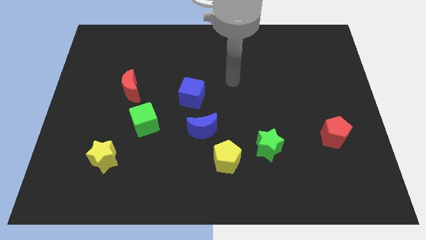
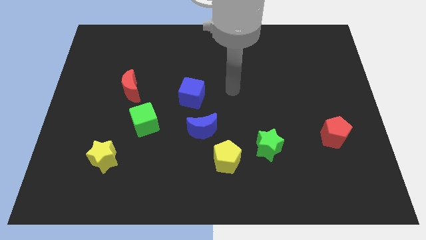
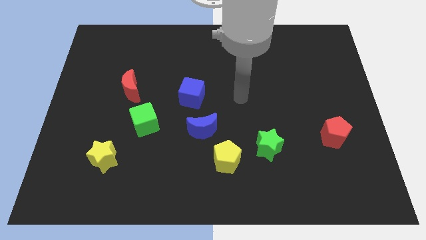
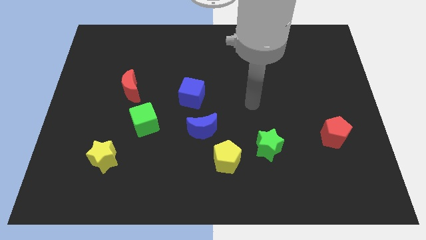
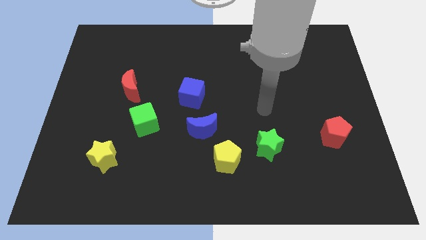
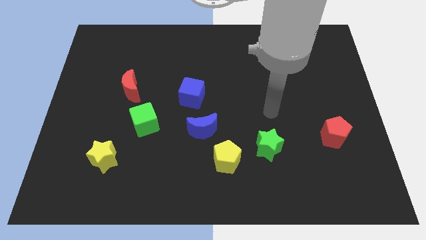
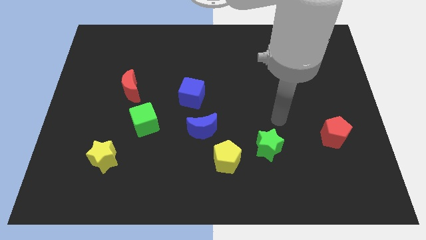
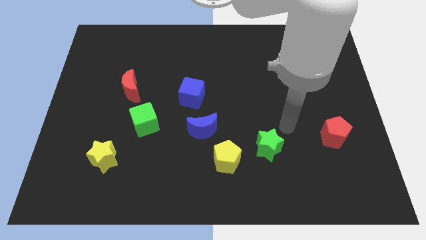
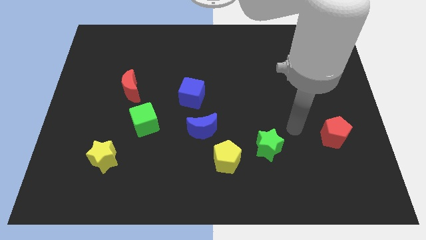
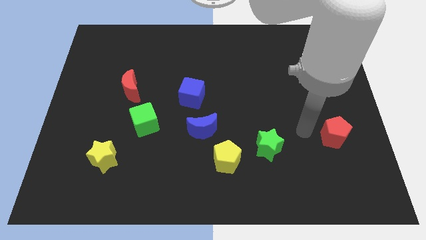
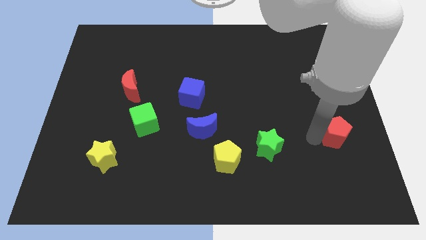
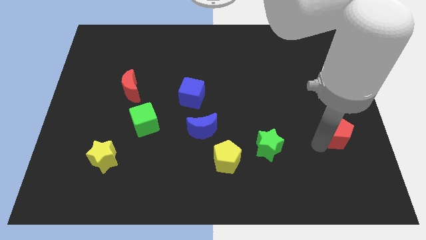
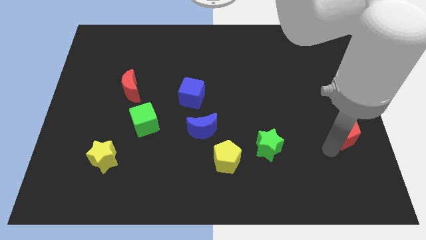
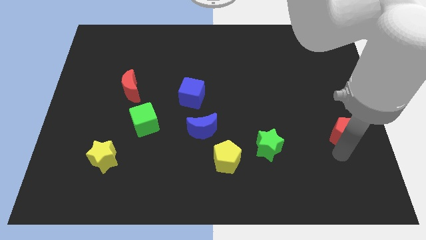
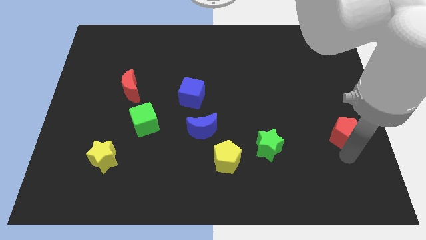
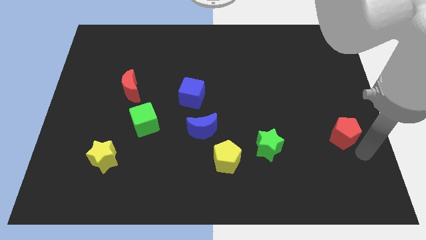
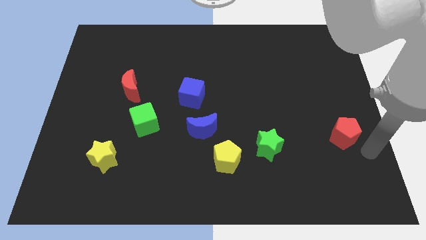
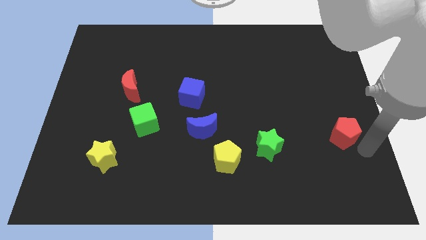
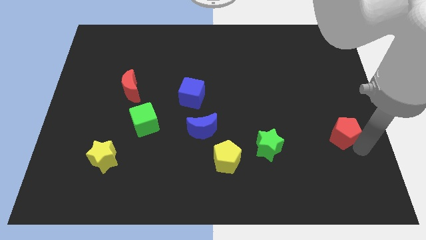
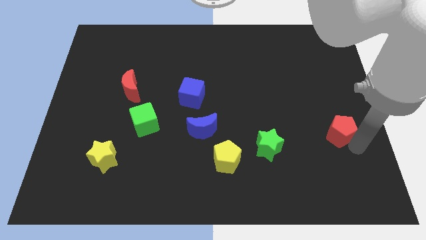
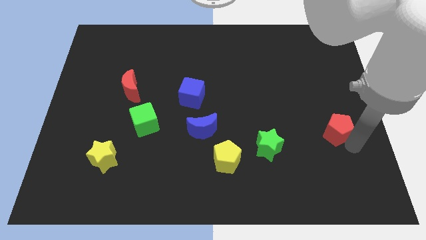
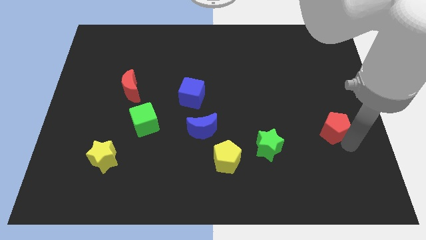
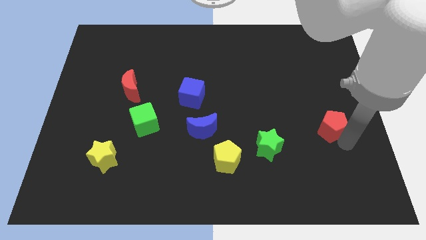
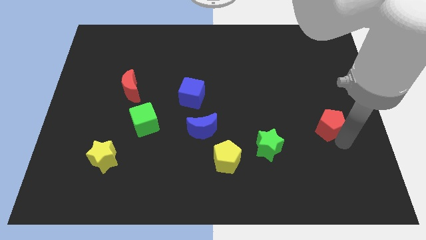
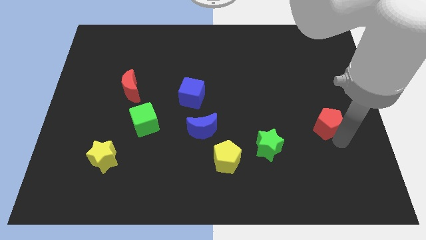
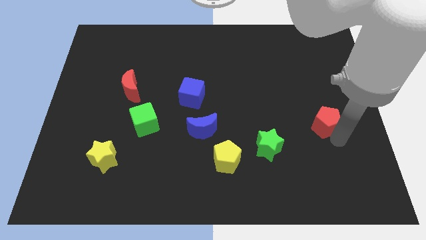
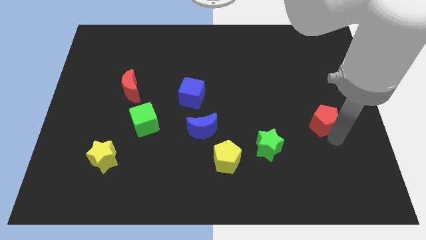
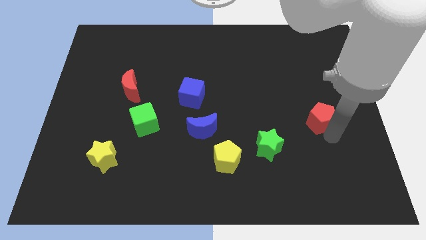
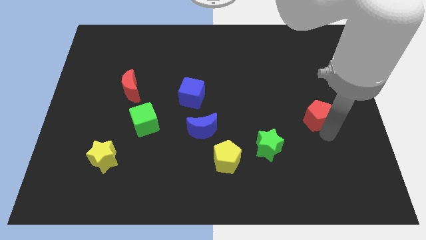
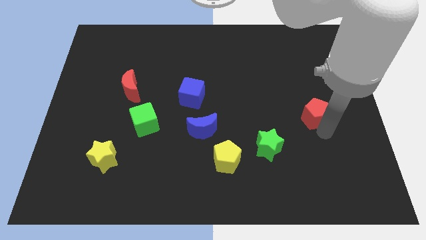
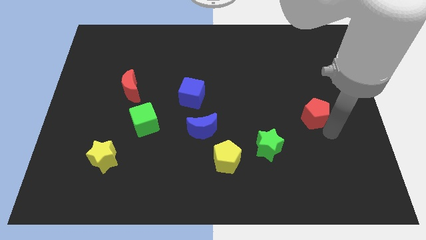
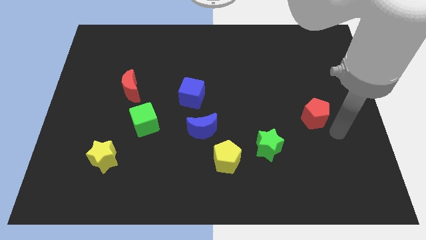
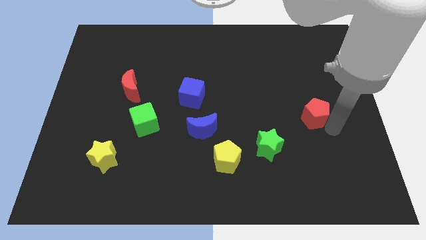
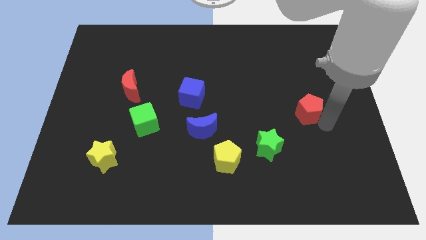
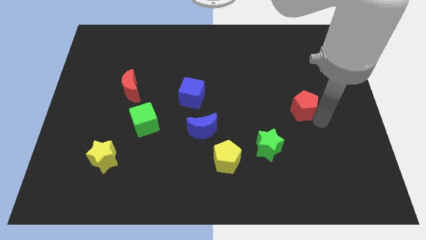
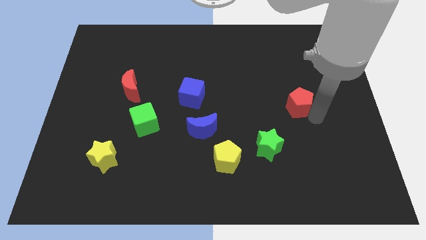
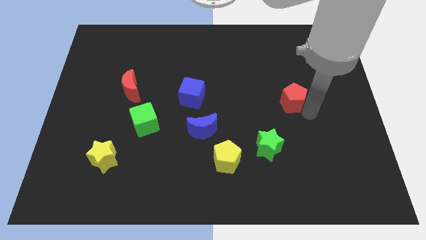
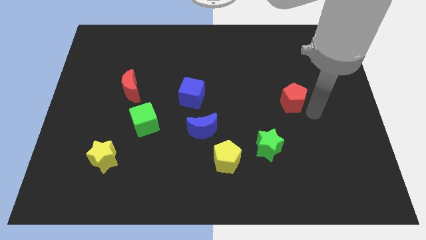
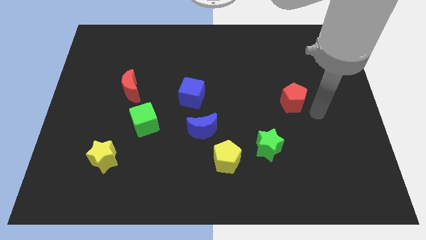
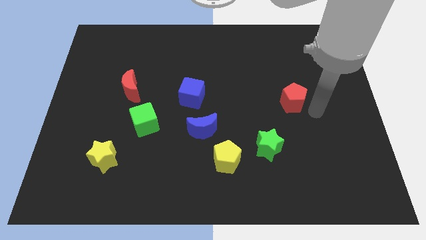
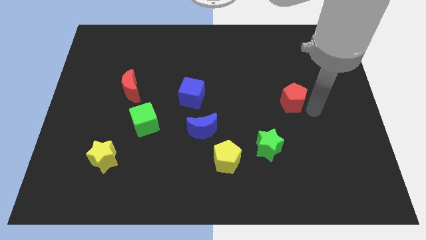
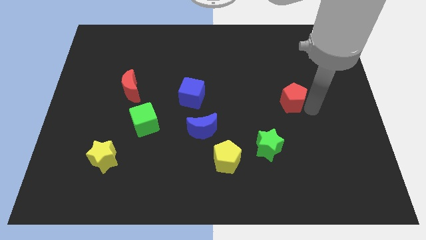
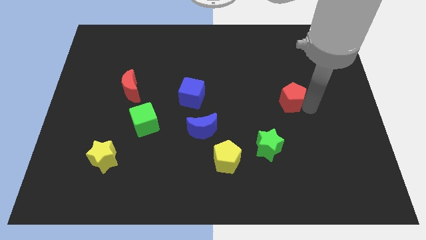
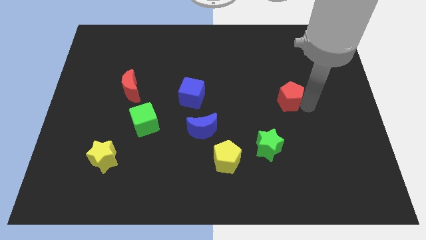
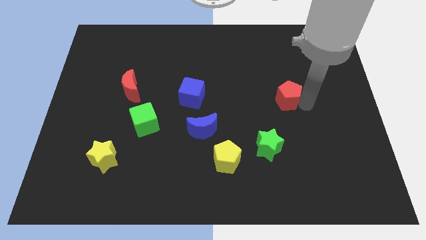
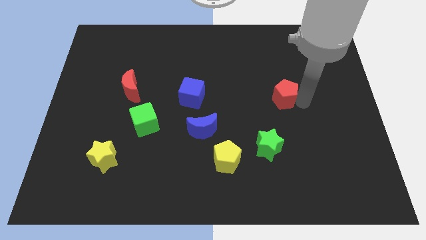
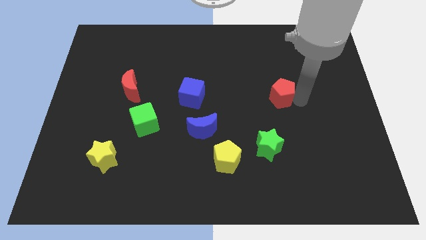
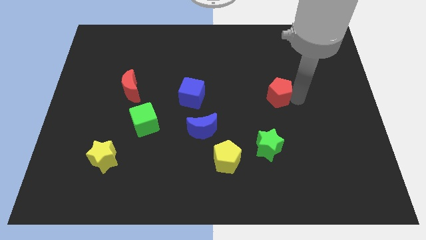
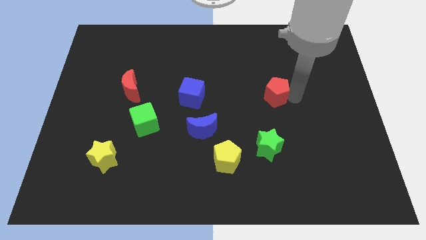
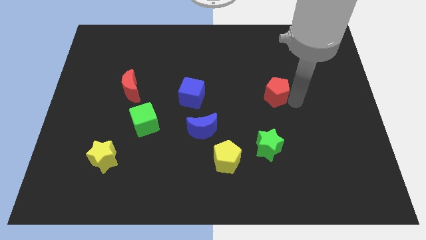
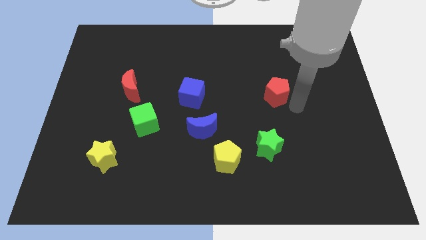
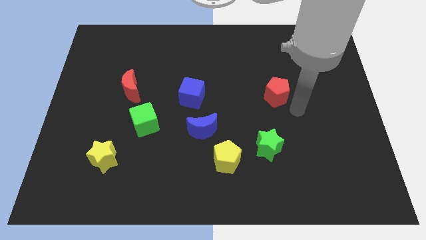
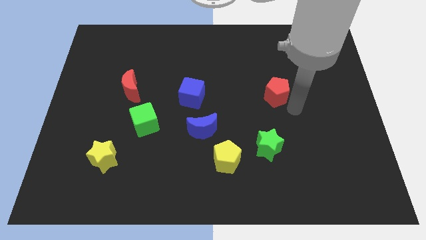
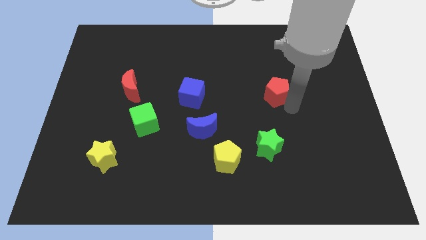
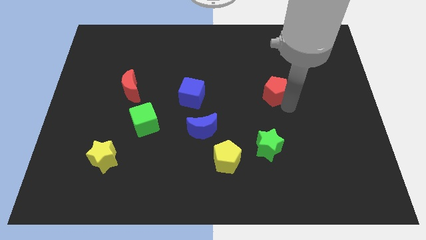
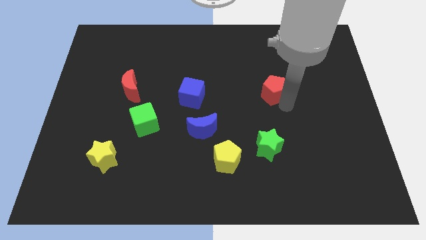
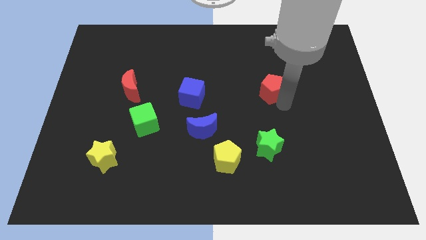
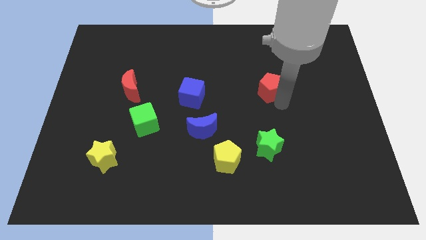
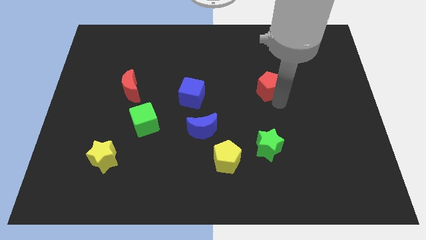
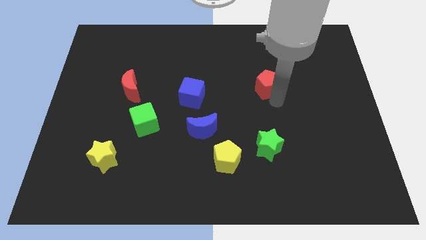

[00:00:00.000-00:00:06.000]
push the red pentagon diagonally up and to the left

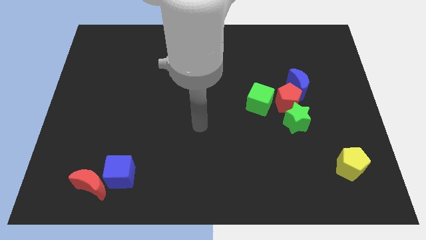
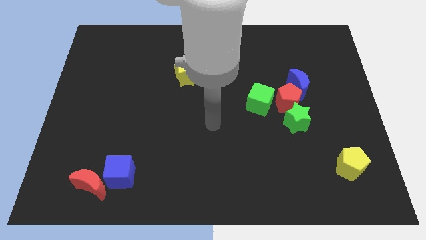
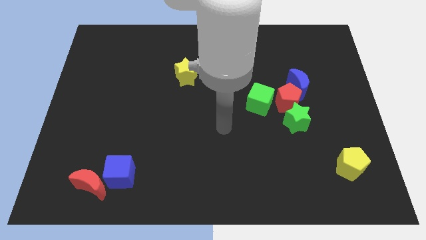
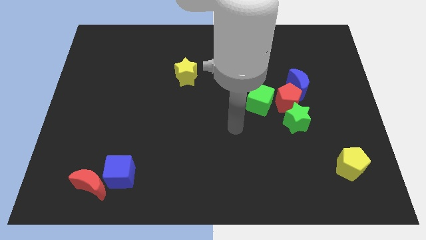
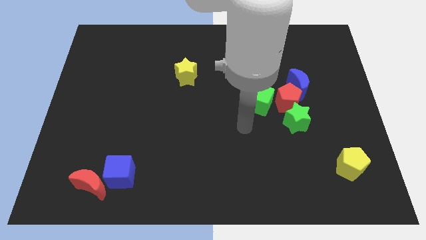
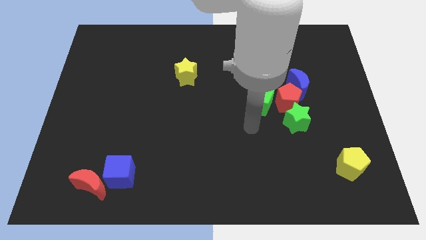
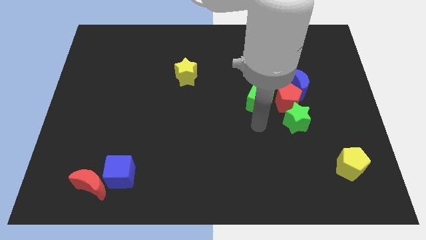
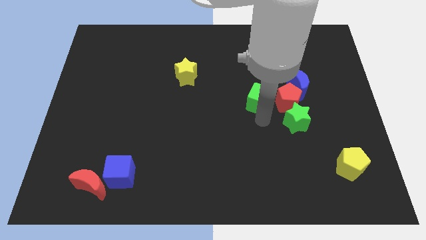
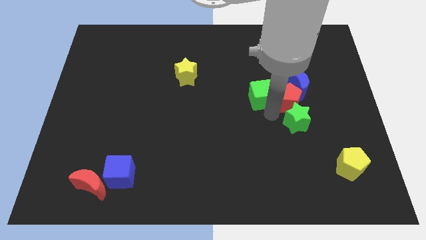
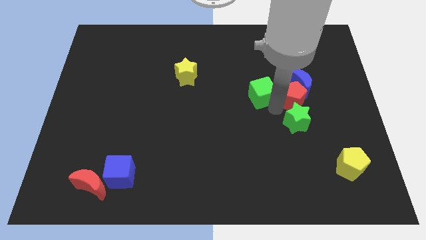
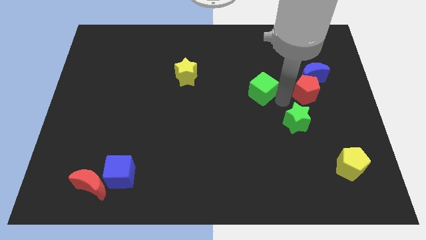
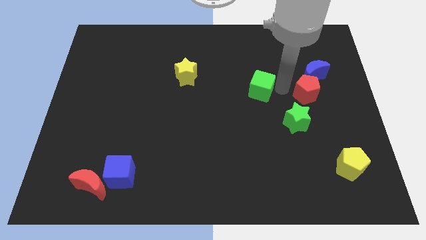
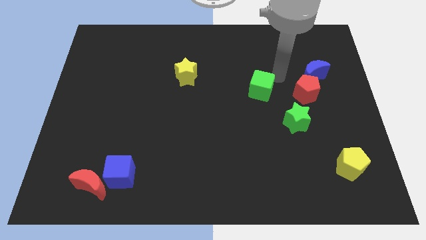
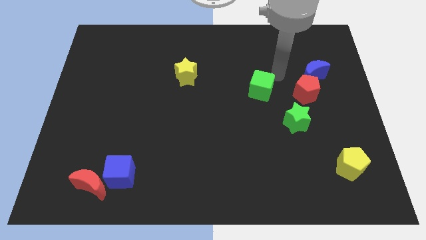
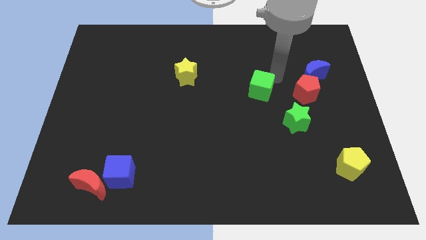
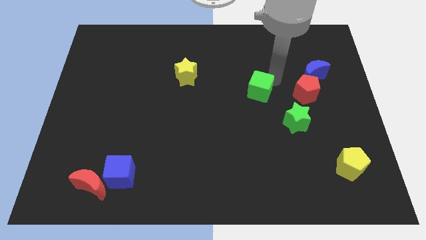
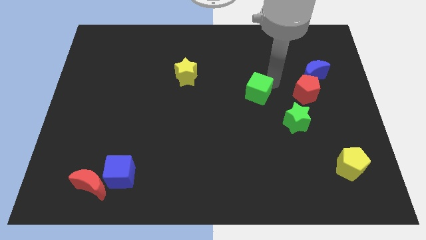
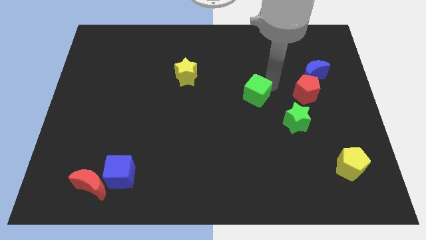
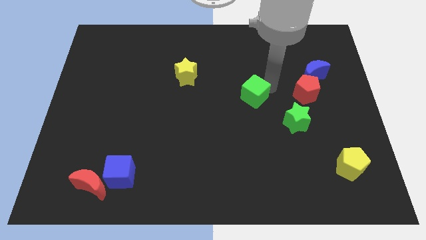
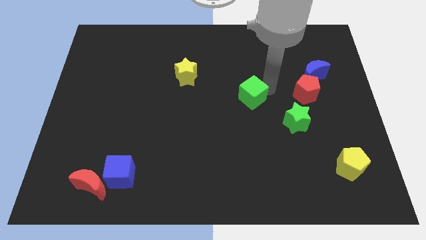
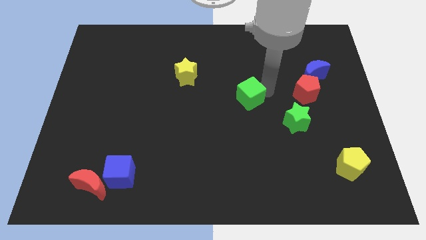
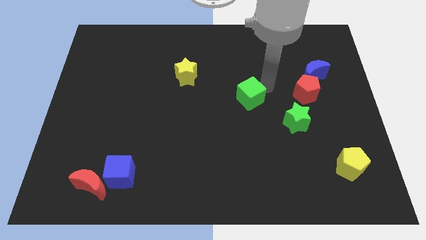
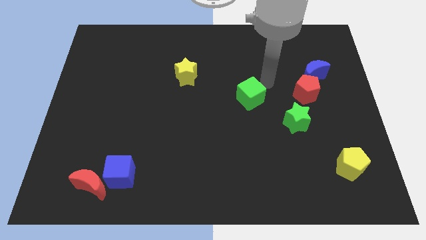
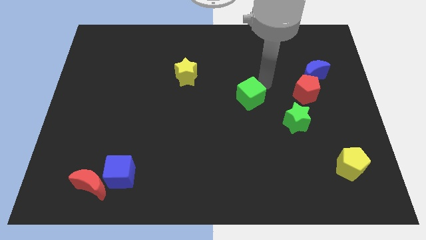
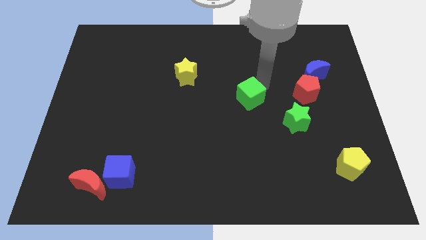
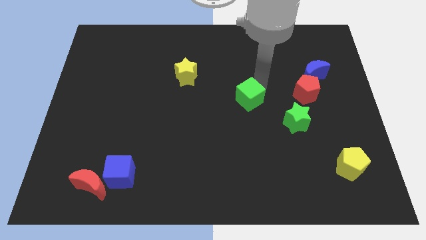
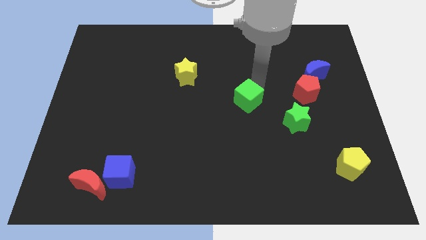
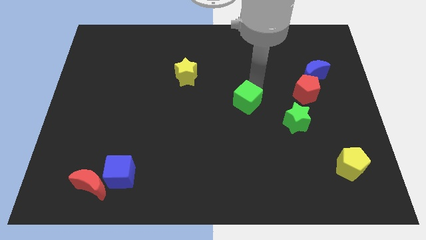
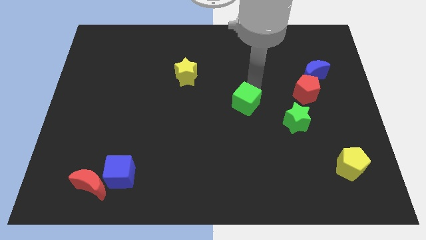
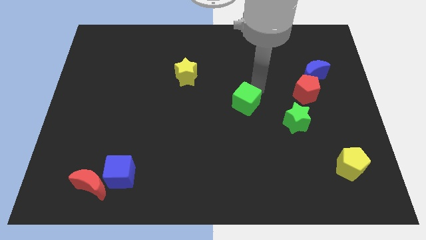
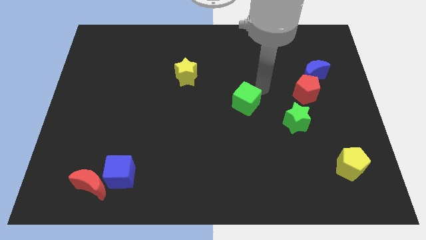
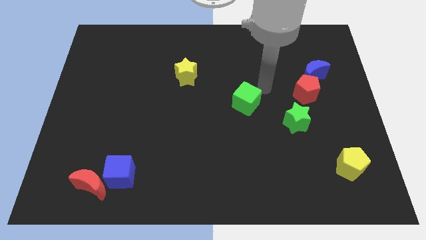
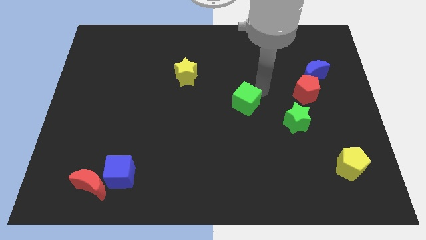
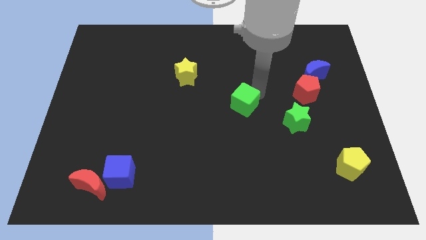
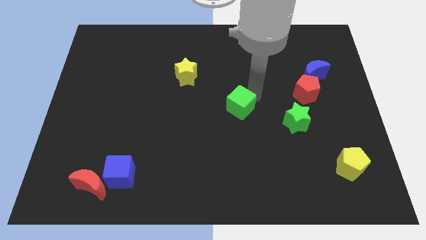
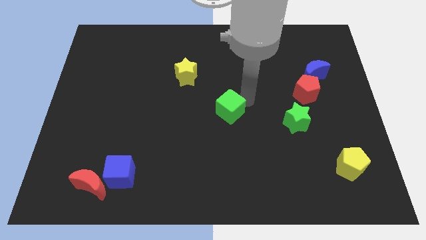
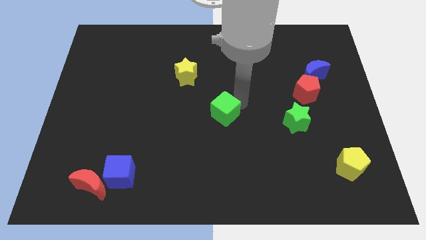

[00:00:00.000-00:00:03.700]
move the green cube downwards and to the left slightly
